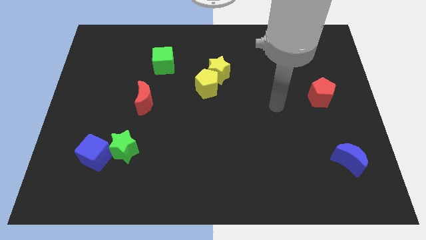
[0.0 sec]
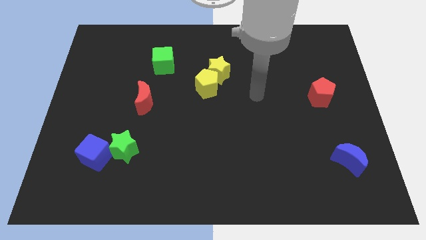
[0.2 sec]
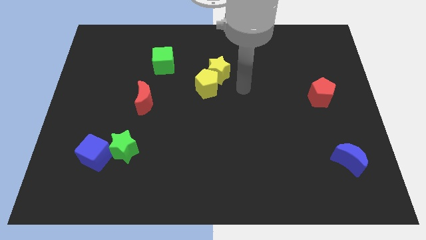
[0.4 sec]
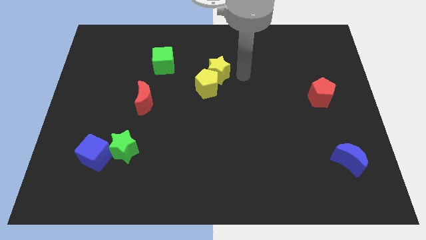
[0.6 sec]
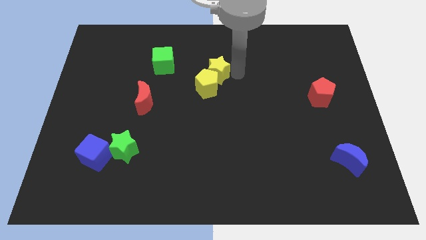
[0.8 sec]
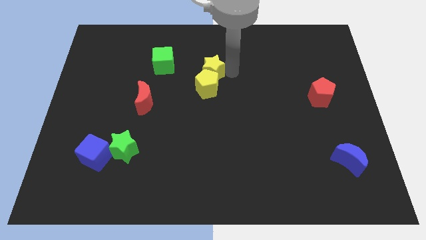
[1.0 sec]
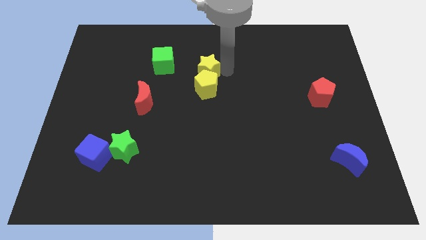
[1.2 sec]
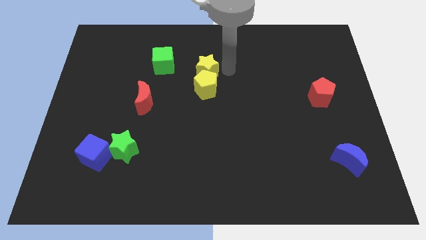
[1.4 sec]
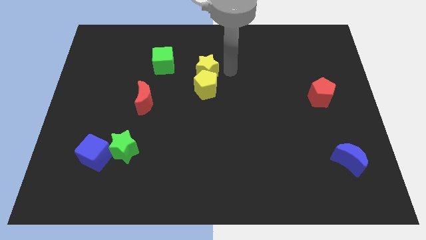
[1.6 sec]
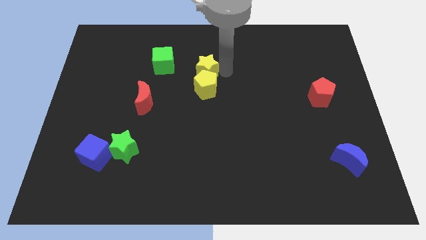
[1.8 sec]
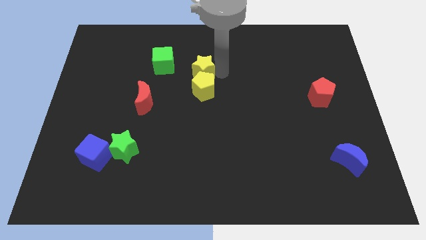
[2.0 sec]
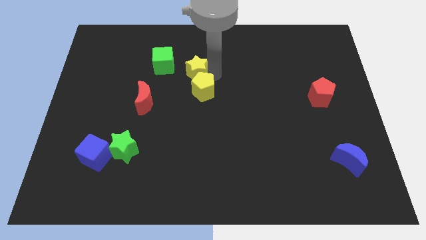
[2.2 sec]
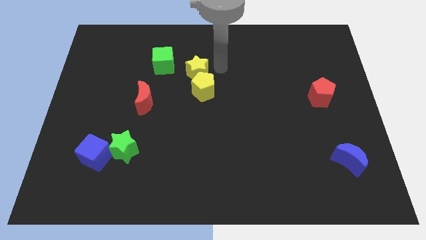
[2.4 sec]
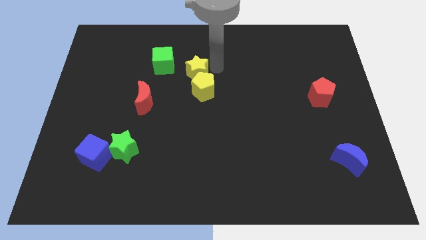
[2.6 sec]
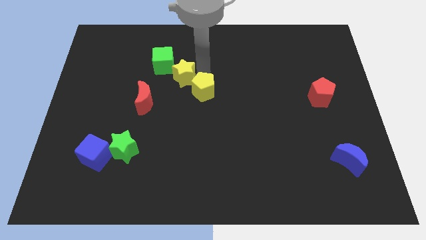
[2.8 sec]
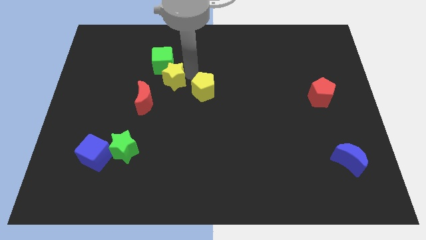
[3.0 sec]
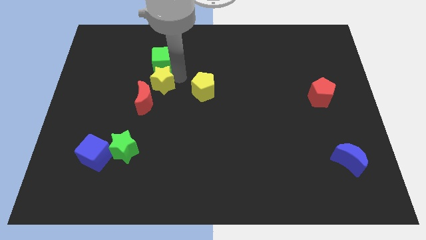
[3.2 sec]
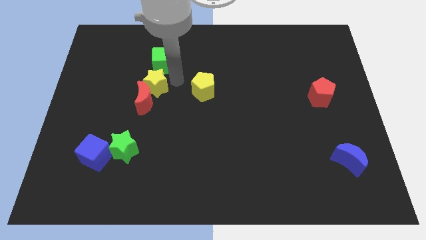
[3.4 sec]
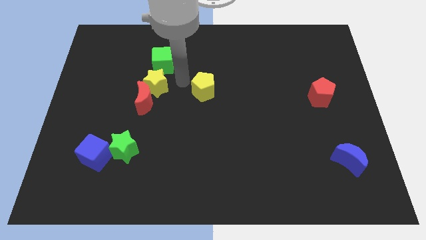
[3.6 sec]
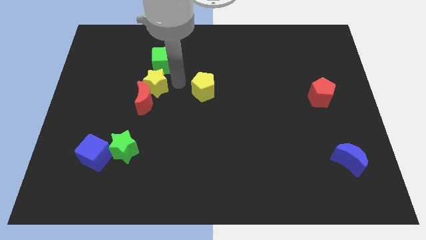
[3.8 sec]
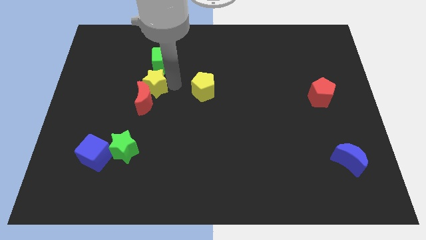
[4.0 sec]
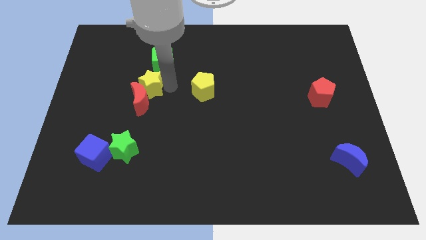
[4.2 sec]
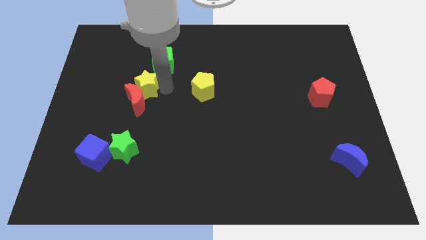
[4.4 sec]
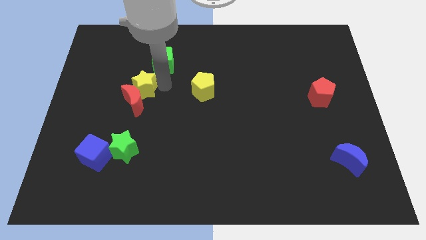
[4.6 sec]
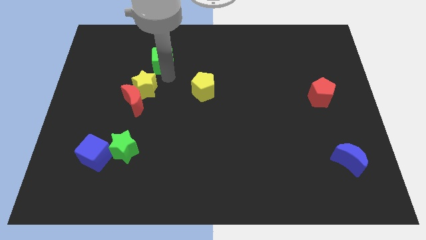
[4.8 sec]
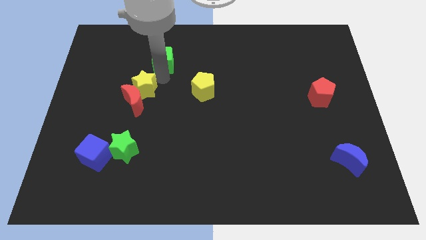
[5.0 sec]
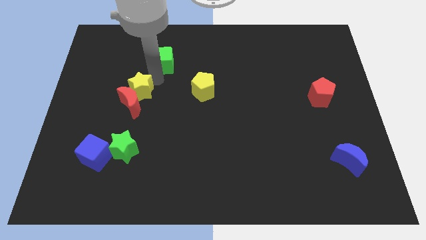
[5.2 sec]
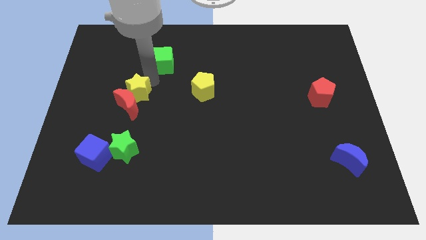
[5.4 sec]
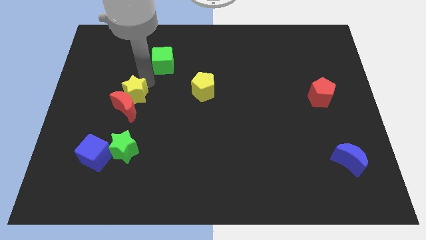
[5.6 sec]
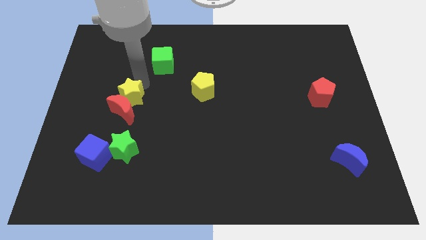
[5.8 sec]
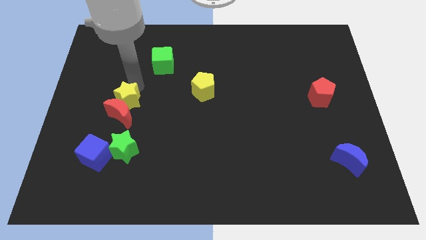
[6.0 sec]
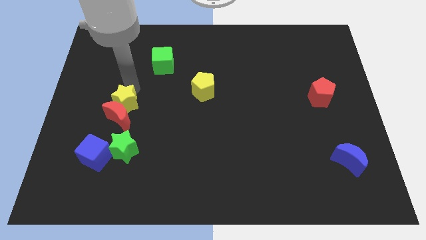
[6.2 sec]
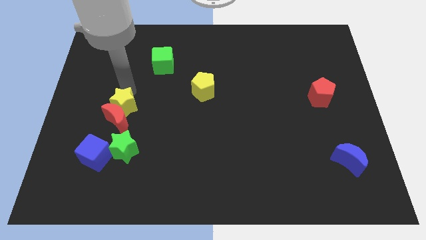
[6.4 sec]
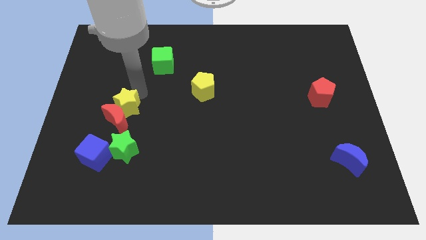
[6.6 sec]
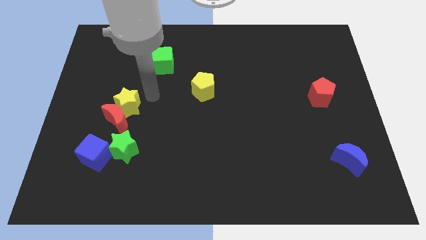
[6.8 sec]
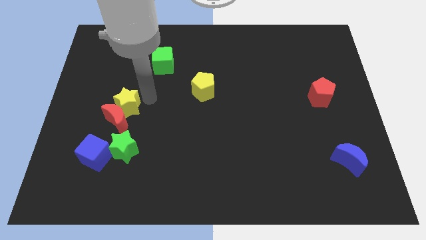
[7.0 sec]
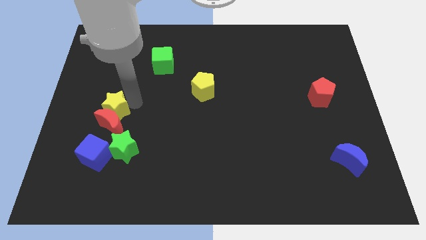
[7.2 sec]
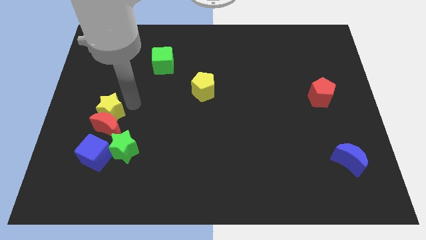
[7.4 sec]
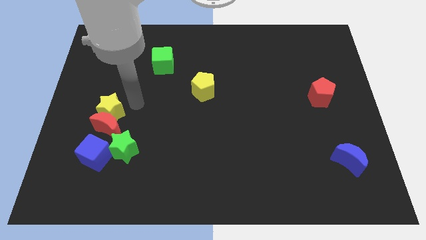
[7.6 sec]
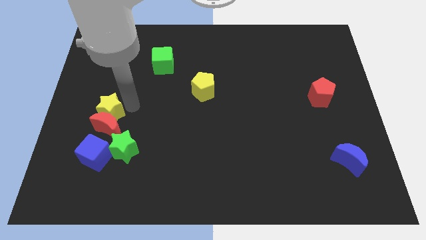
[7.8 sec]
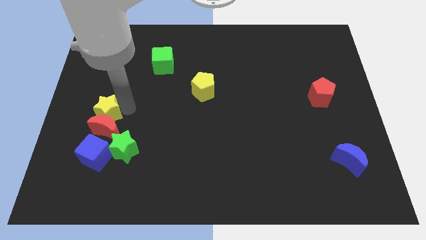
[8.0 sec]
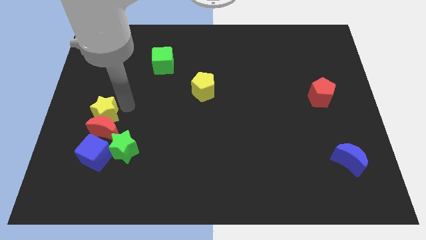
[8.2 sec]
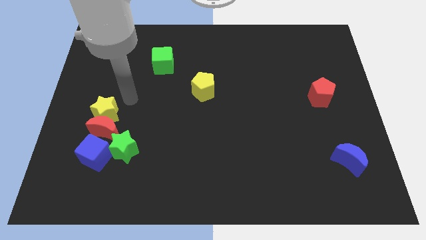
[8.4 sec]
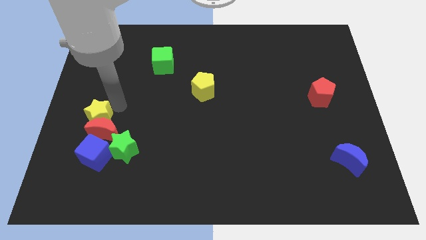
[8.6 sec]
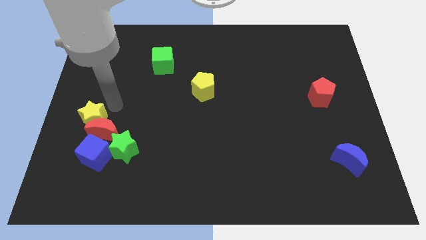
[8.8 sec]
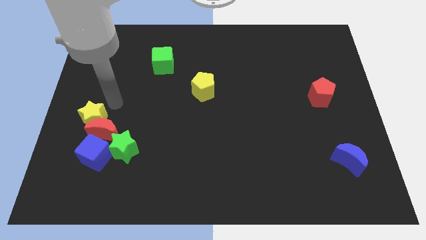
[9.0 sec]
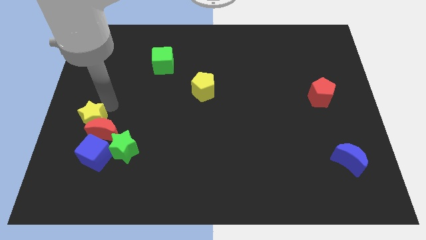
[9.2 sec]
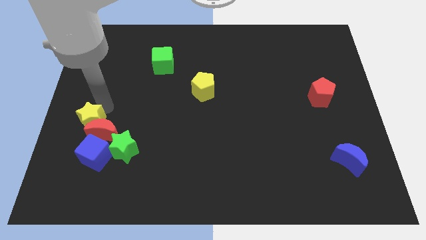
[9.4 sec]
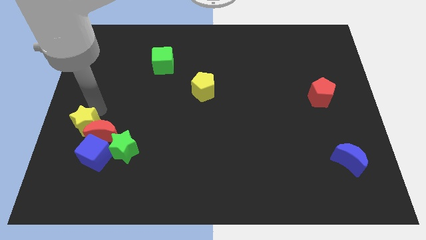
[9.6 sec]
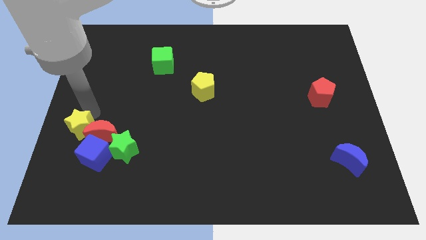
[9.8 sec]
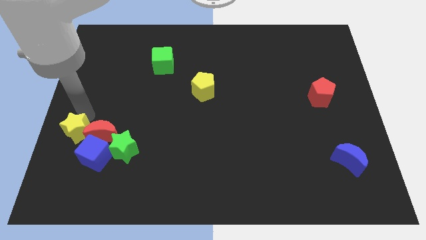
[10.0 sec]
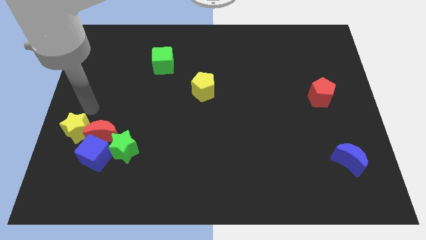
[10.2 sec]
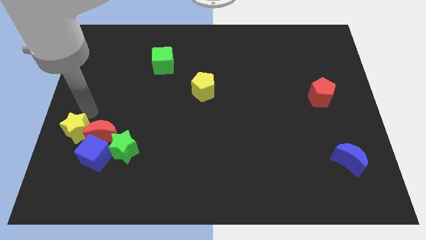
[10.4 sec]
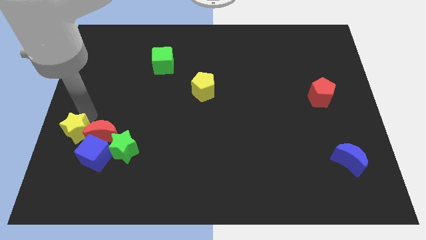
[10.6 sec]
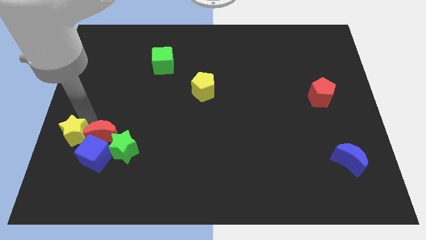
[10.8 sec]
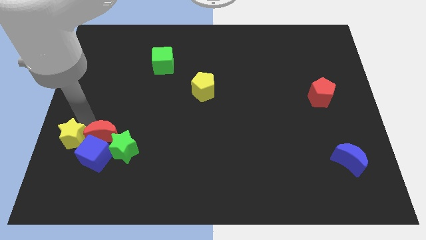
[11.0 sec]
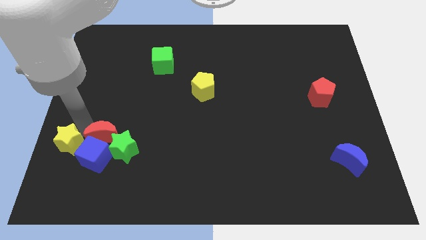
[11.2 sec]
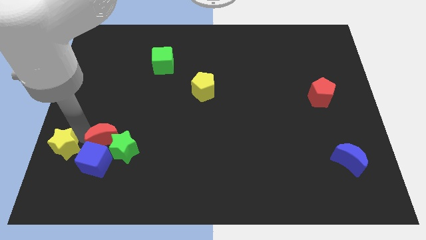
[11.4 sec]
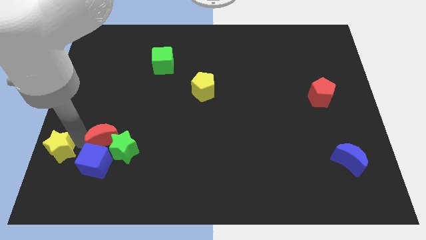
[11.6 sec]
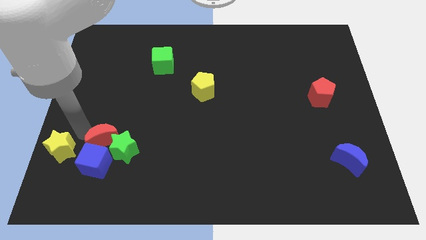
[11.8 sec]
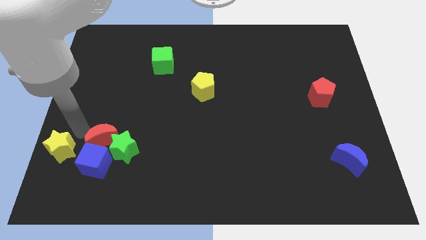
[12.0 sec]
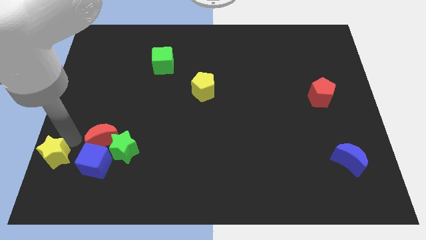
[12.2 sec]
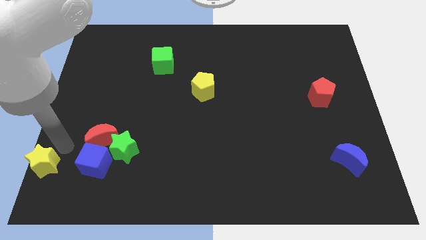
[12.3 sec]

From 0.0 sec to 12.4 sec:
push the yellow star to the bottom left of the board

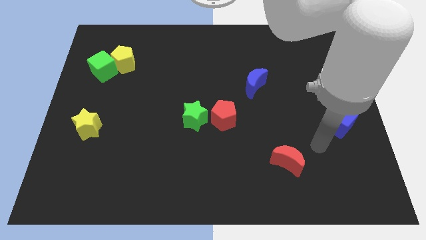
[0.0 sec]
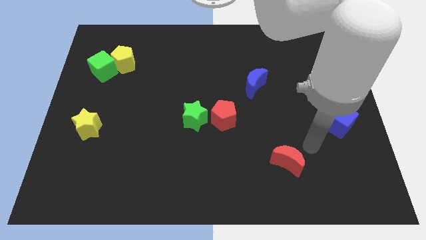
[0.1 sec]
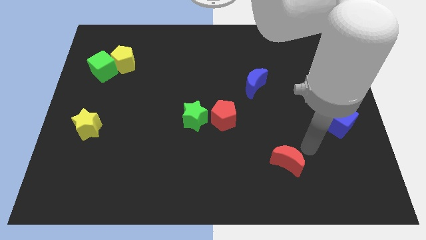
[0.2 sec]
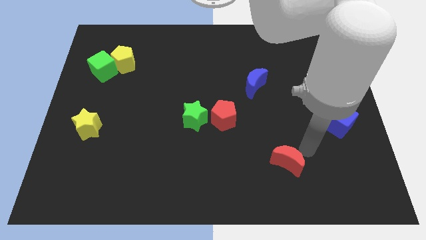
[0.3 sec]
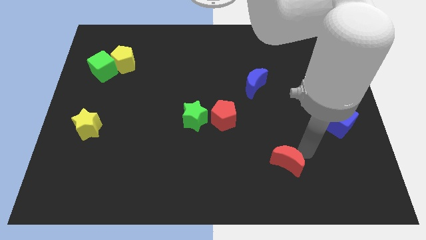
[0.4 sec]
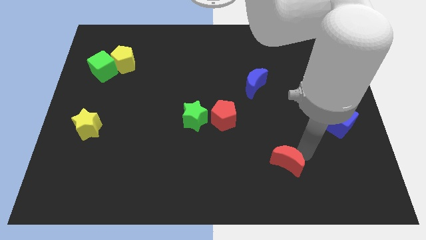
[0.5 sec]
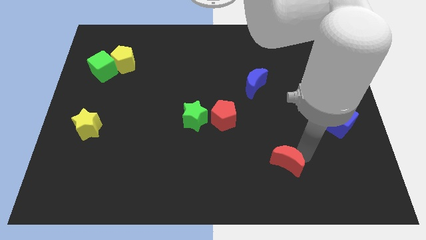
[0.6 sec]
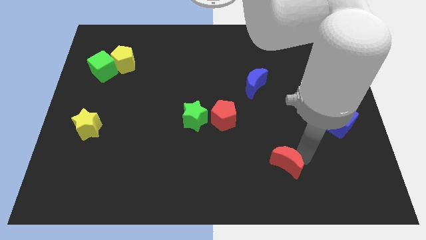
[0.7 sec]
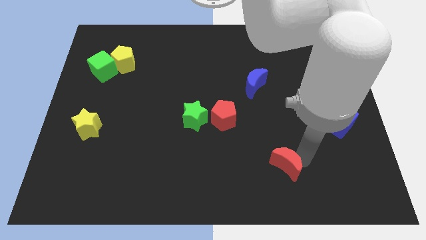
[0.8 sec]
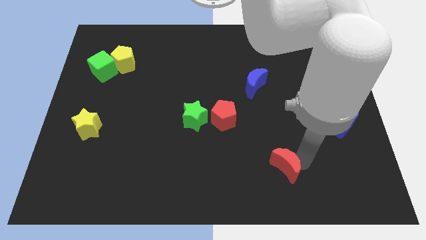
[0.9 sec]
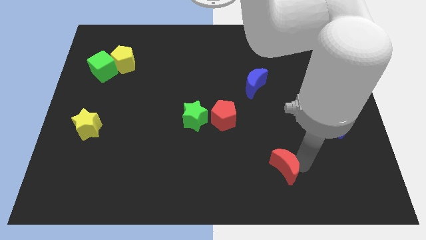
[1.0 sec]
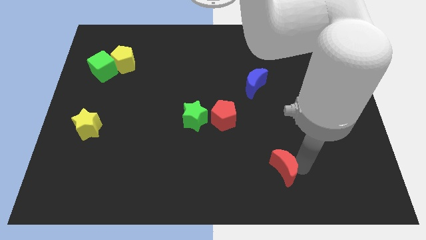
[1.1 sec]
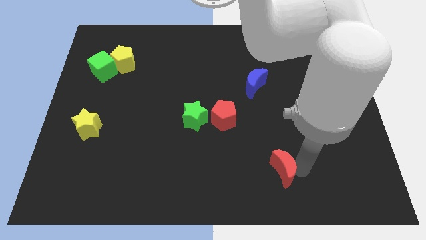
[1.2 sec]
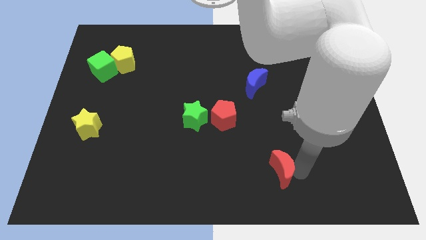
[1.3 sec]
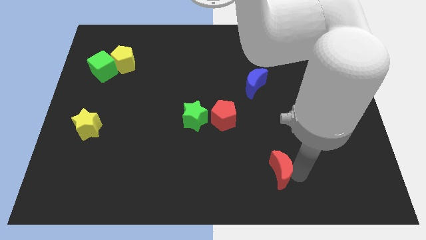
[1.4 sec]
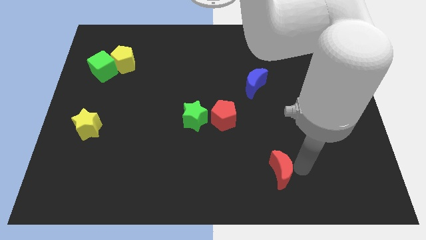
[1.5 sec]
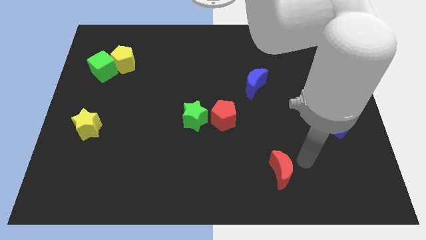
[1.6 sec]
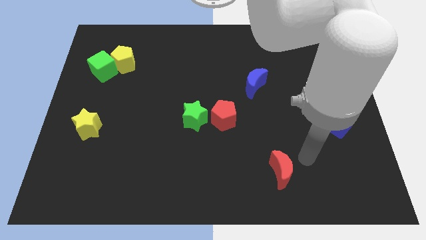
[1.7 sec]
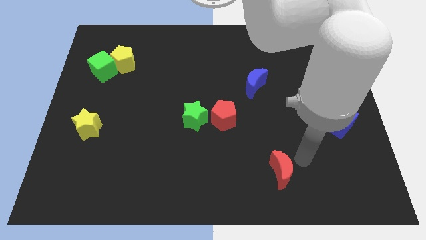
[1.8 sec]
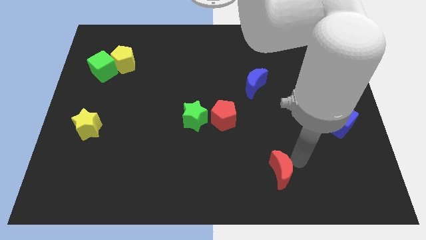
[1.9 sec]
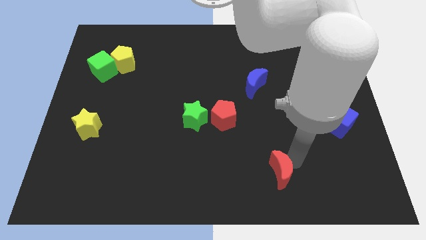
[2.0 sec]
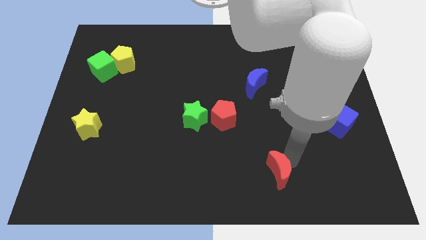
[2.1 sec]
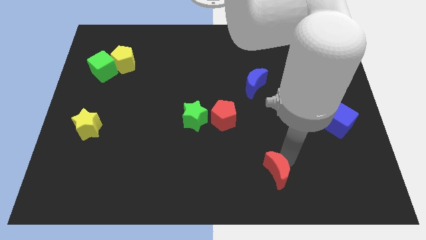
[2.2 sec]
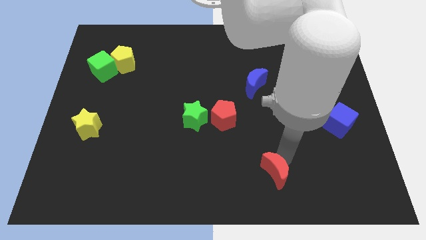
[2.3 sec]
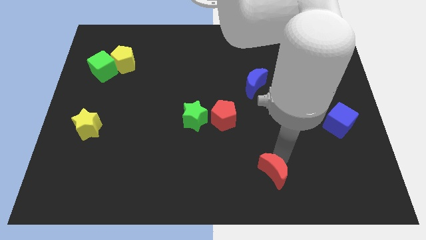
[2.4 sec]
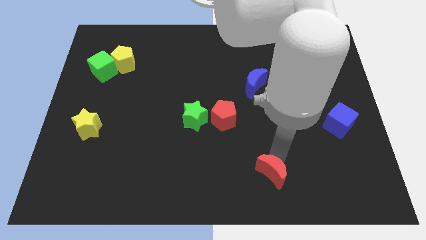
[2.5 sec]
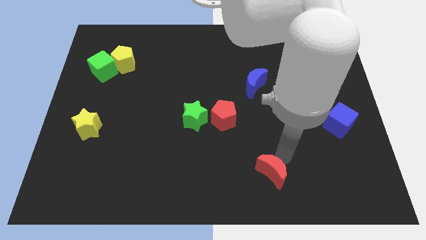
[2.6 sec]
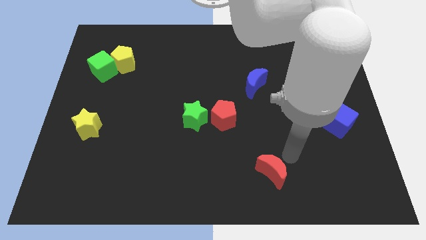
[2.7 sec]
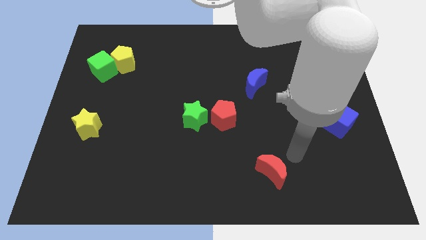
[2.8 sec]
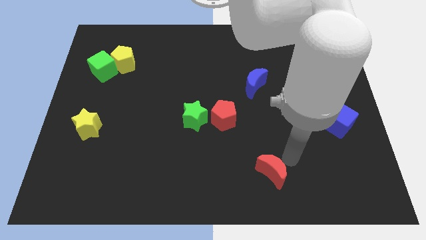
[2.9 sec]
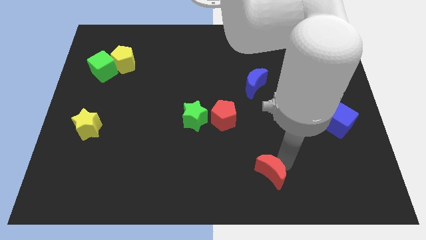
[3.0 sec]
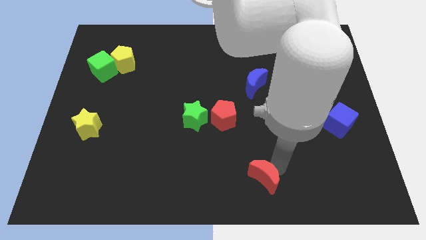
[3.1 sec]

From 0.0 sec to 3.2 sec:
put the red moon to the bottom side
